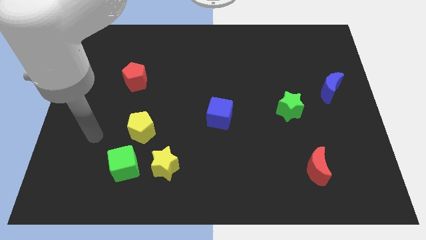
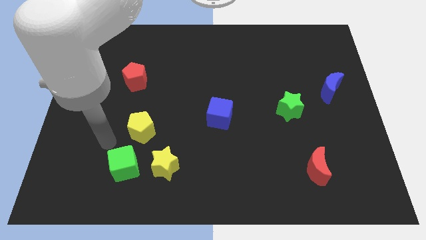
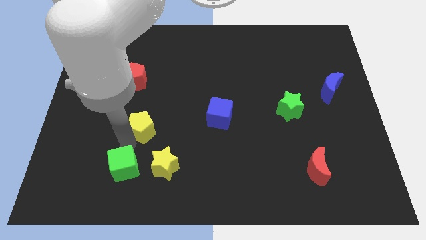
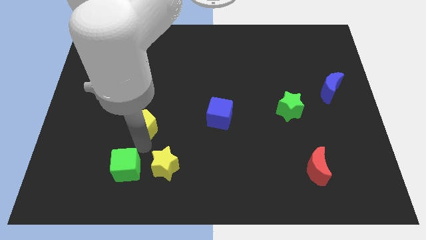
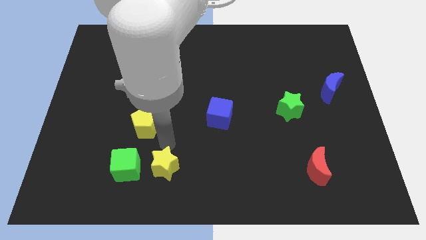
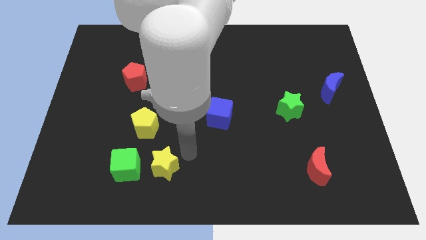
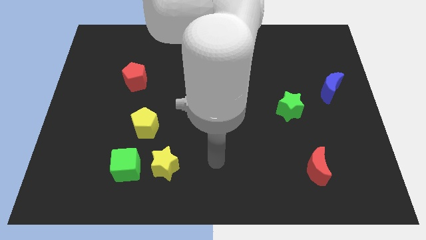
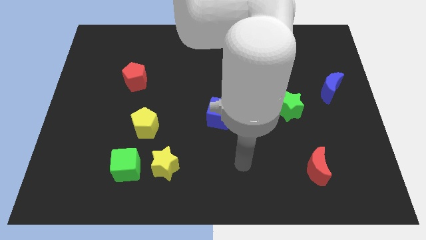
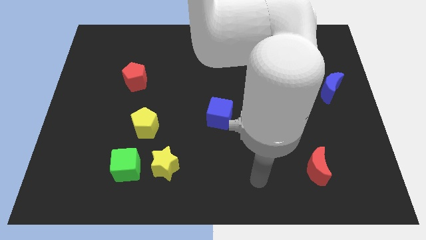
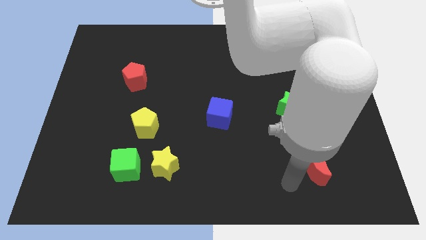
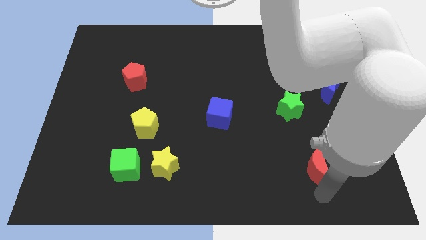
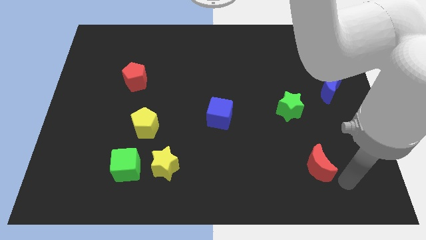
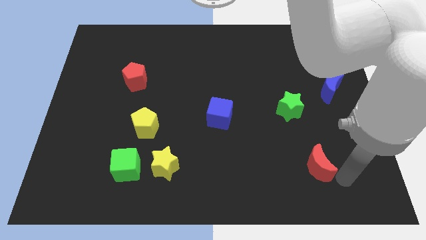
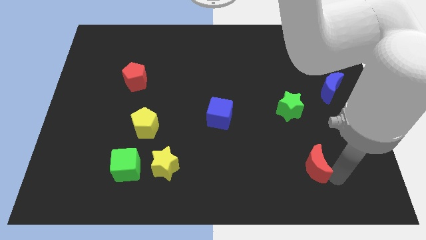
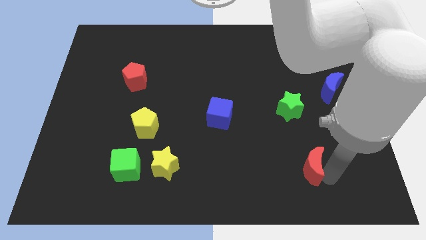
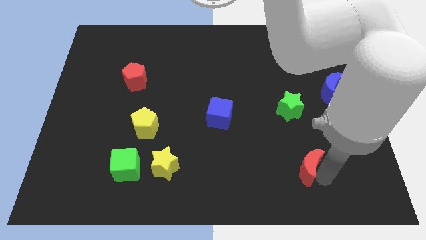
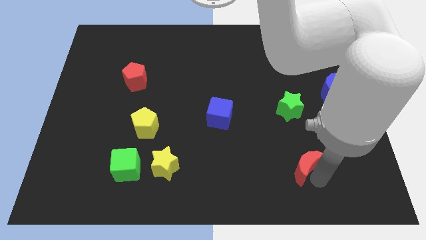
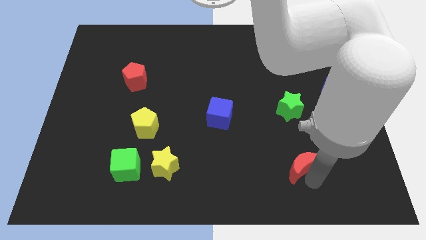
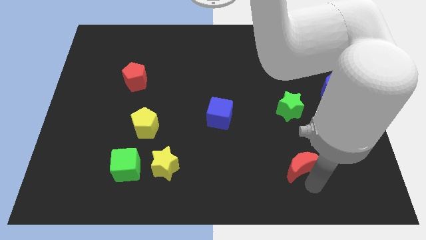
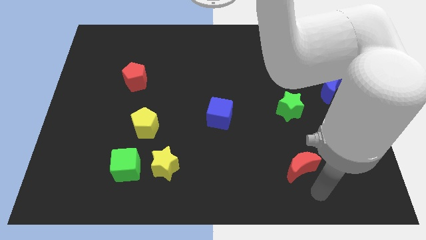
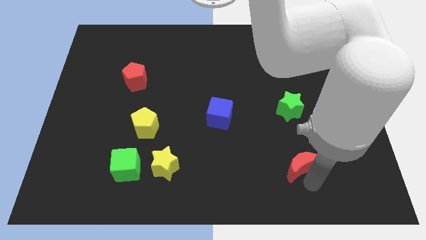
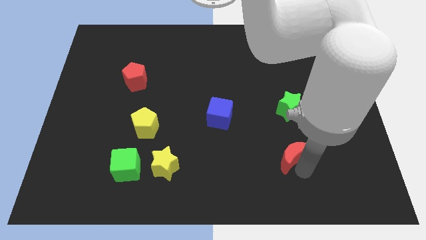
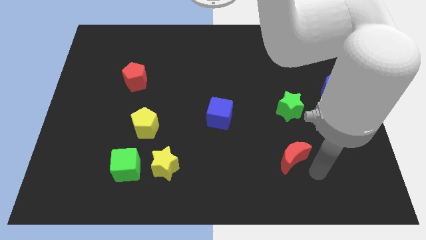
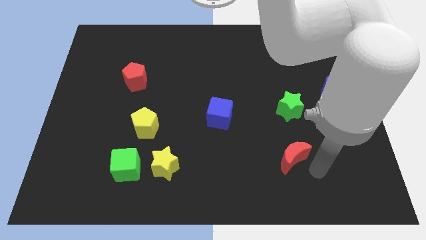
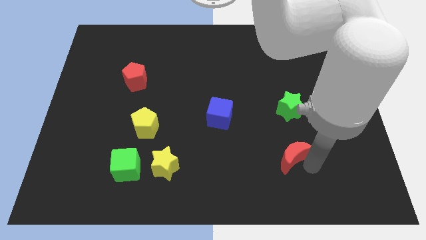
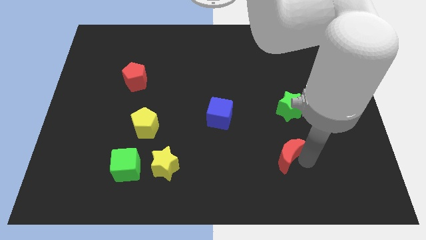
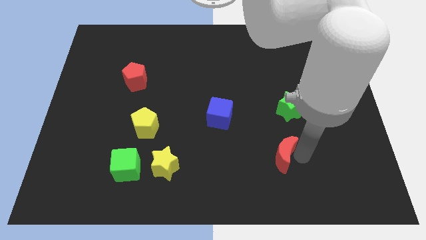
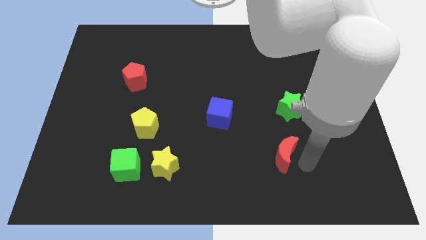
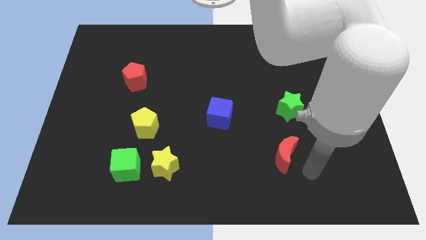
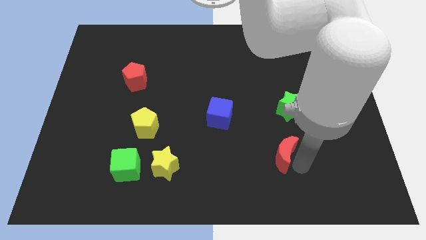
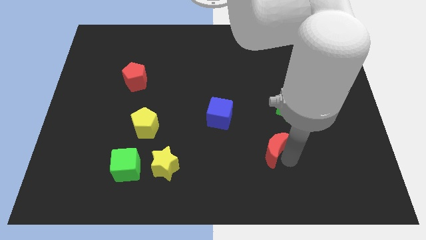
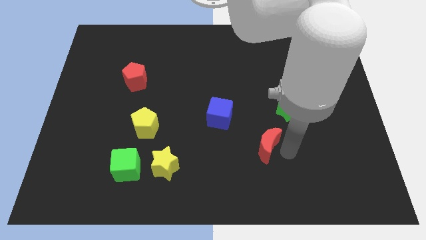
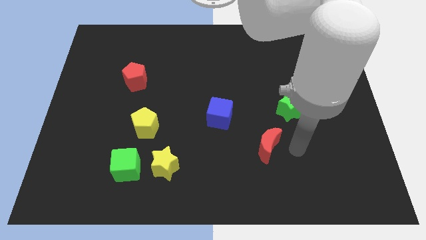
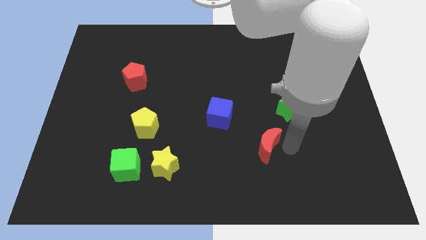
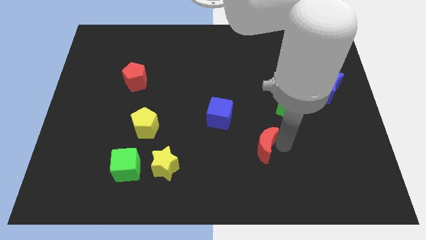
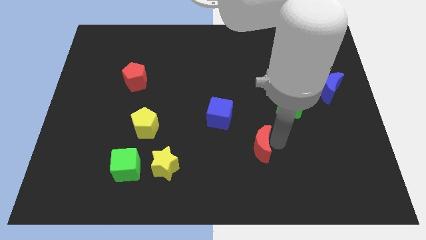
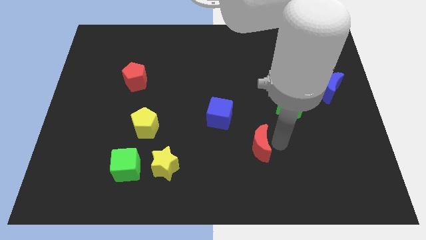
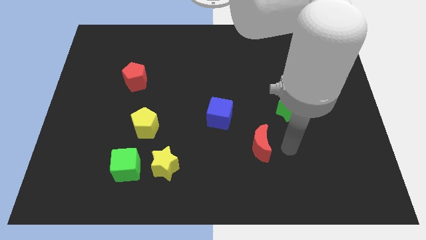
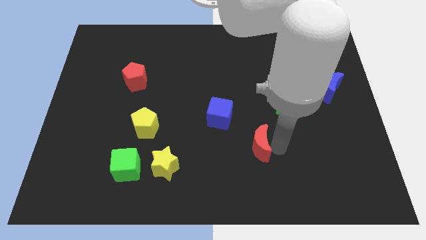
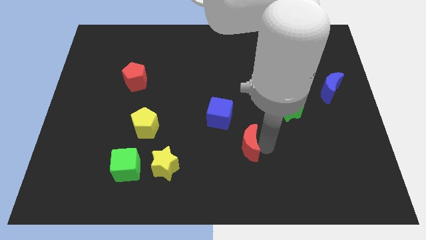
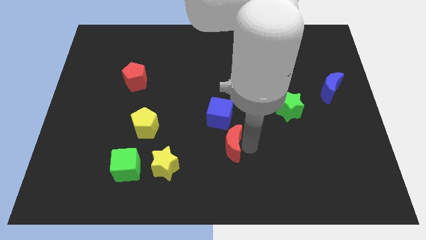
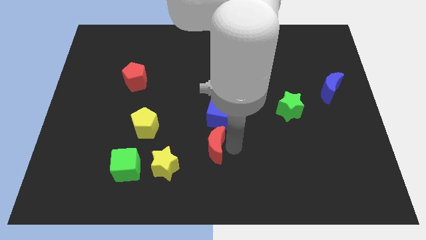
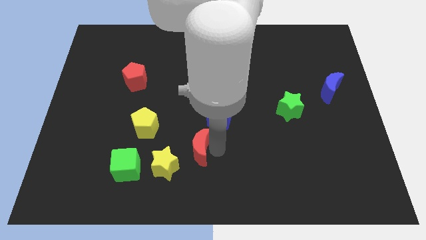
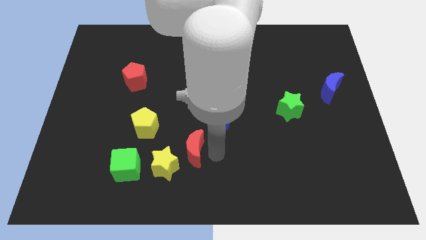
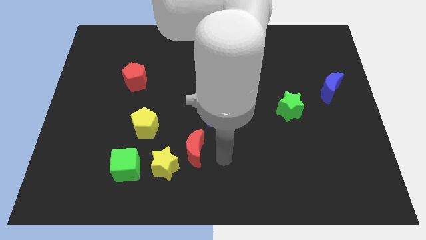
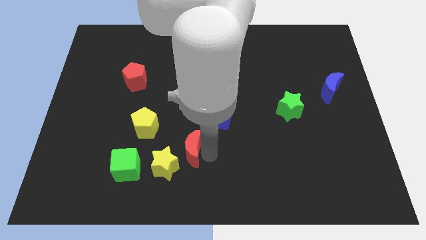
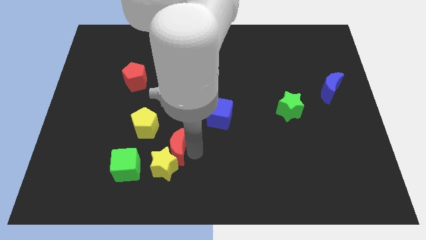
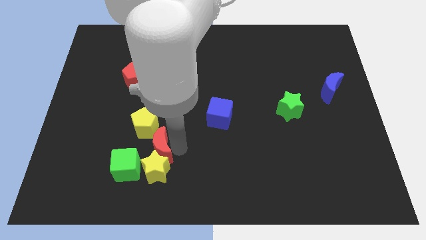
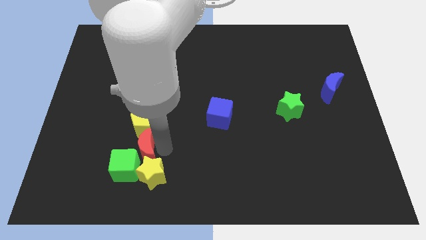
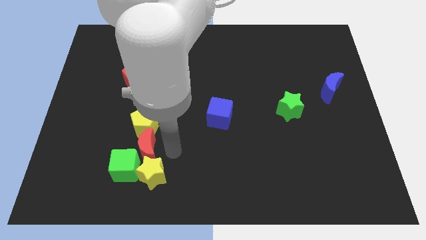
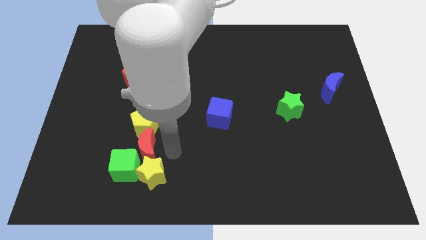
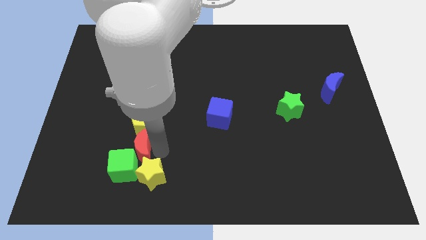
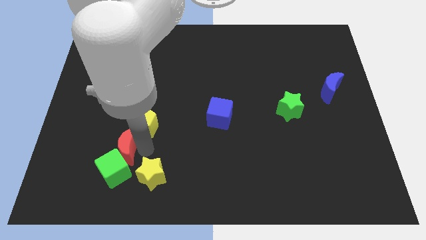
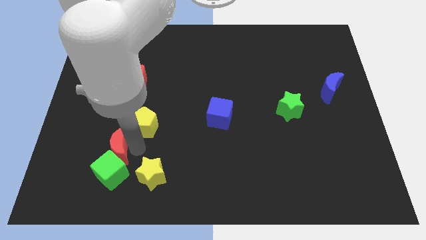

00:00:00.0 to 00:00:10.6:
put the red moon to the top left side of the green cube

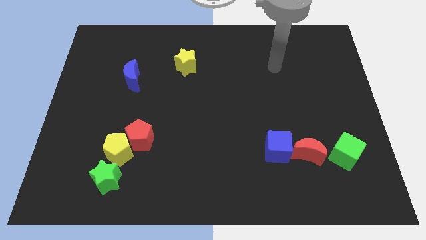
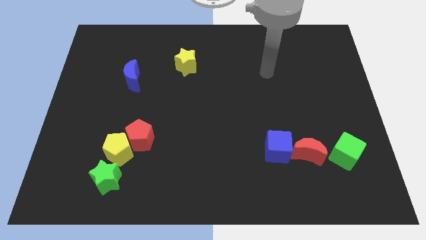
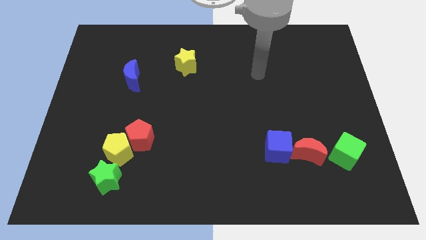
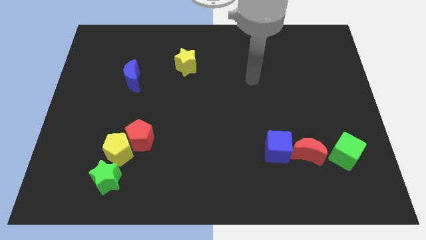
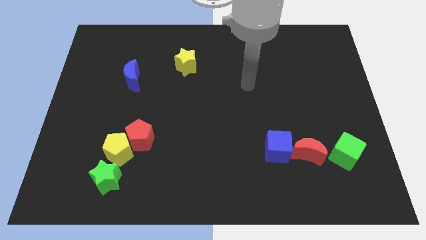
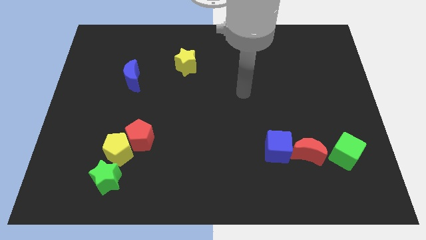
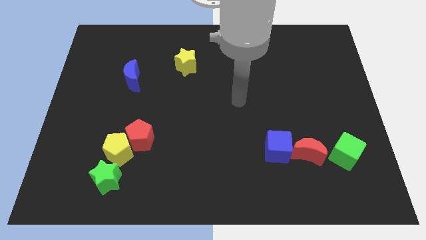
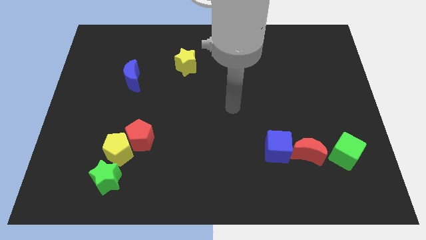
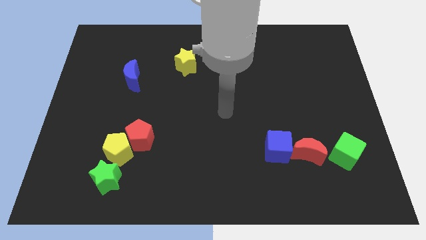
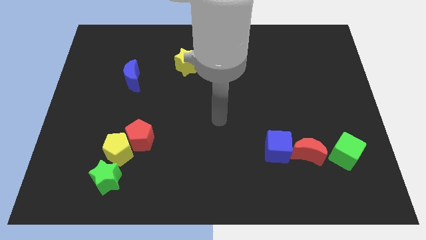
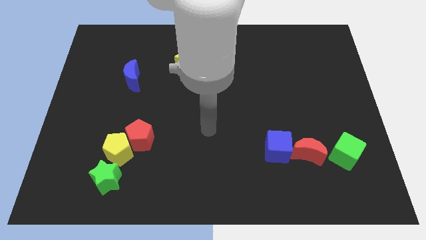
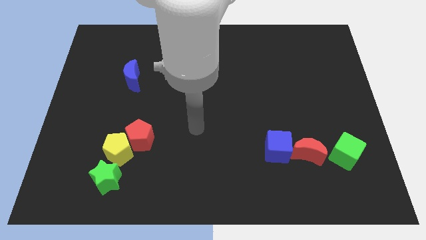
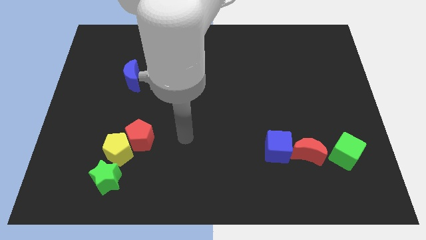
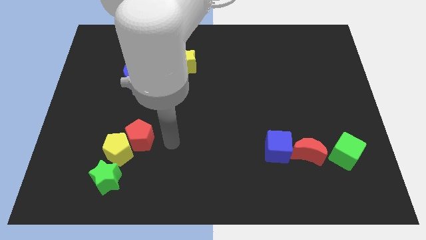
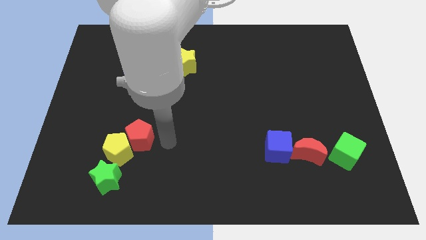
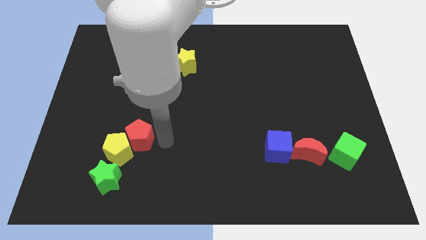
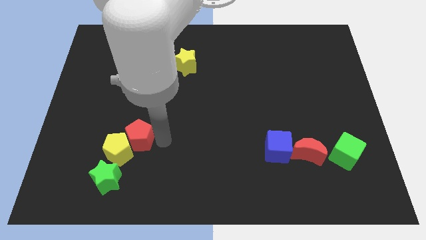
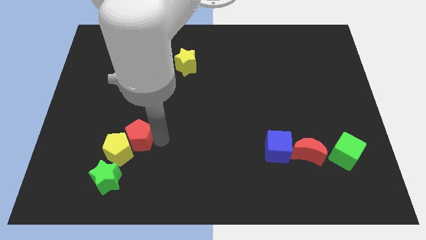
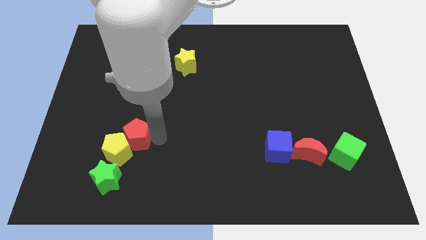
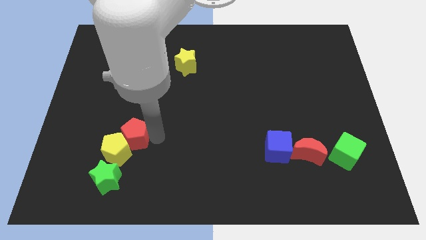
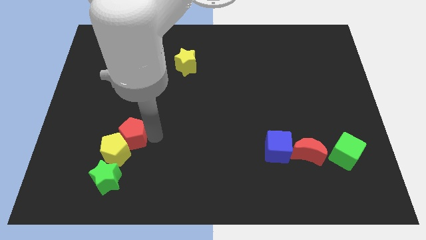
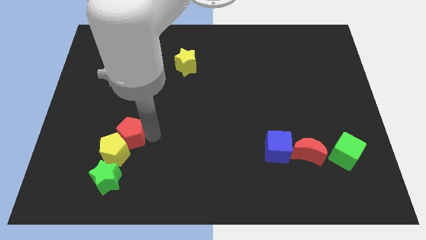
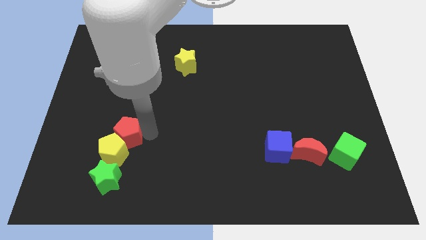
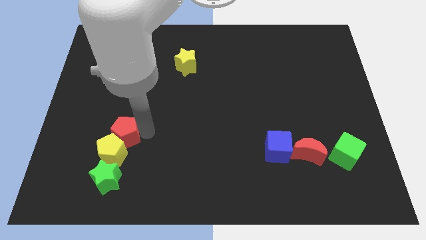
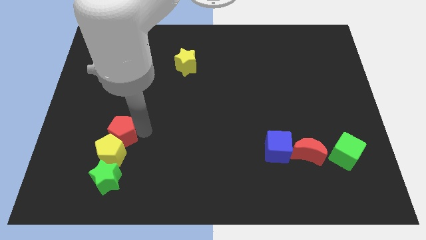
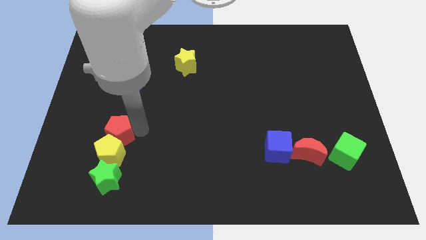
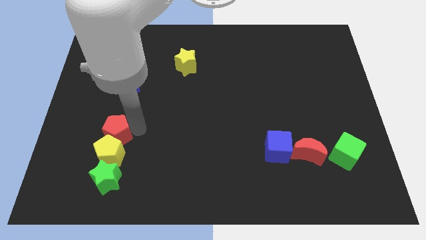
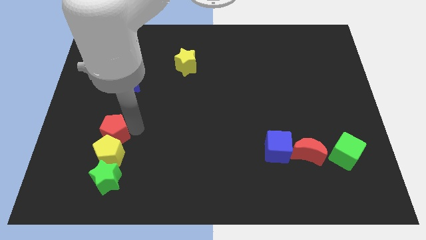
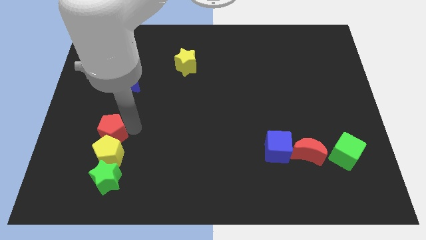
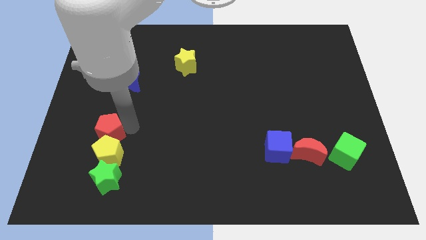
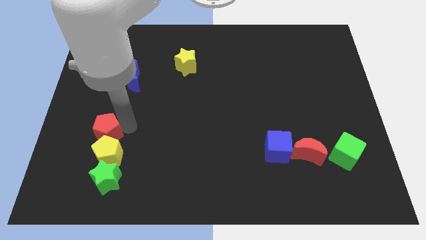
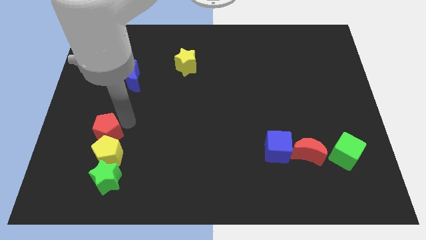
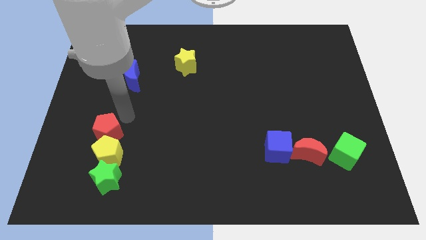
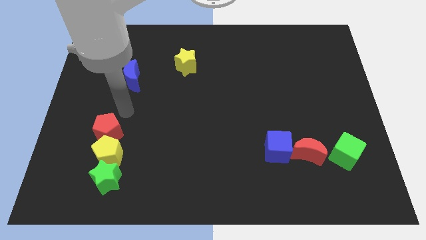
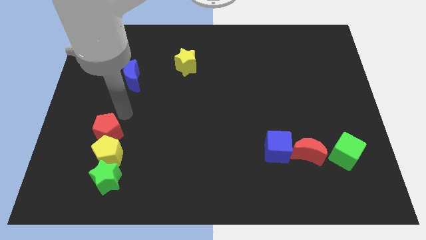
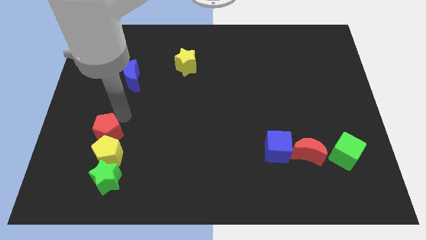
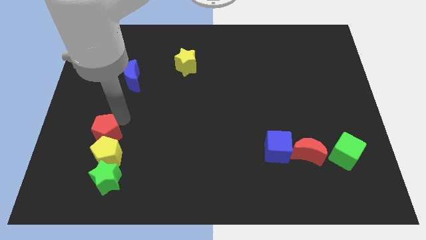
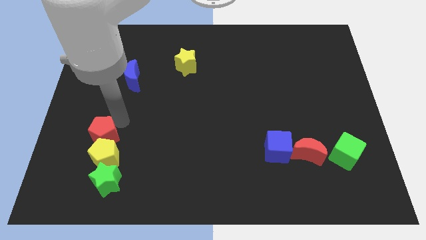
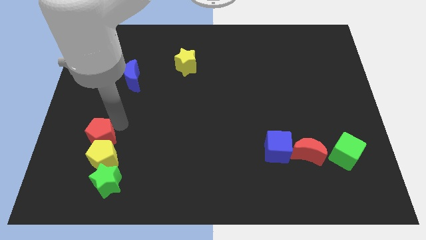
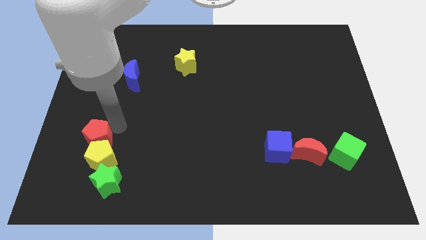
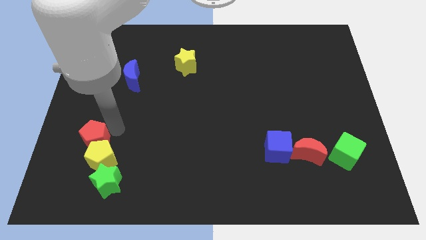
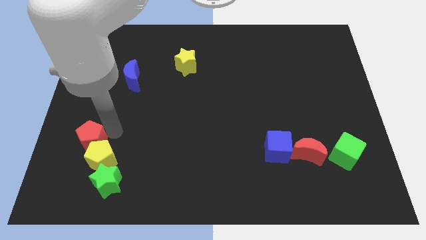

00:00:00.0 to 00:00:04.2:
move the red pentagon diagonally up and to the left of the green star
